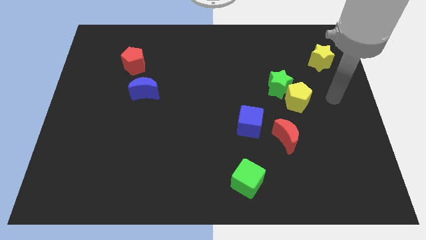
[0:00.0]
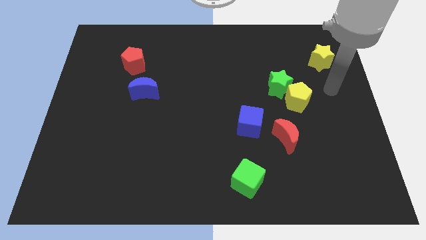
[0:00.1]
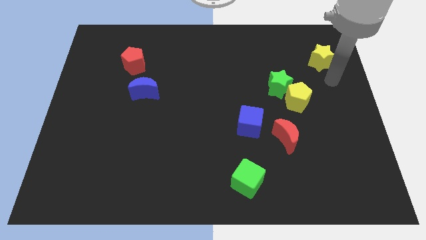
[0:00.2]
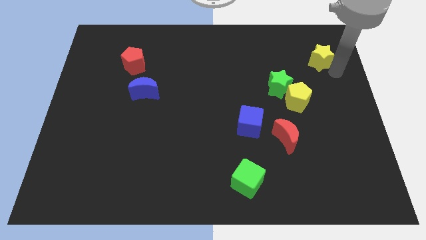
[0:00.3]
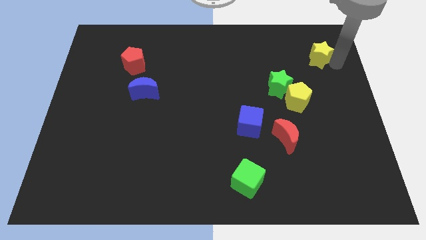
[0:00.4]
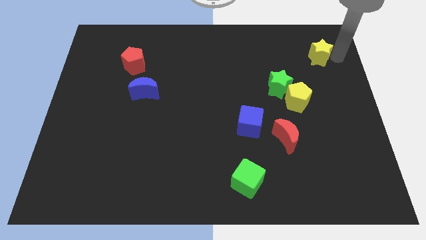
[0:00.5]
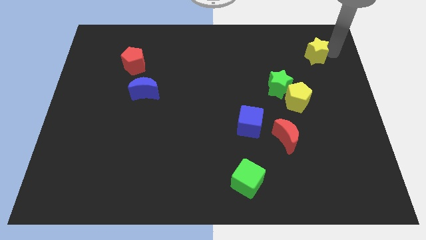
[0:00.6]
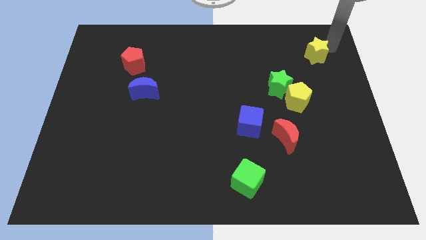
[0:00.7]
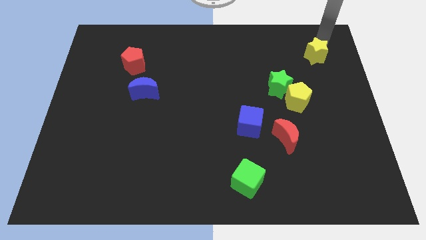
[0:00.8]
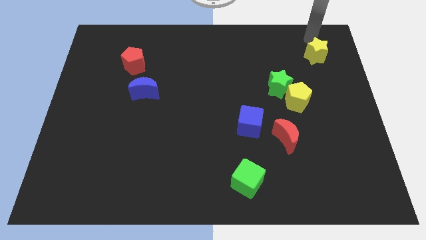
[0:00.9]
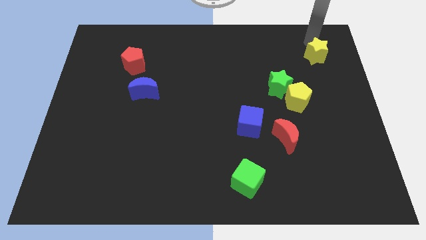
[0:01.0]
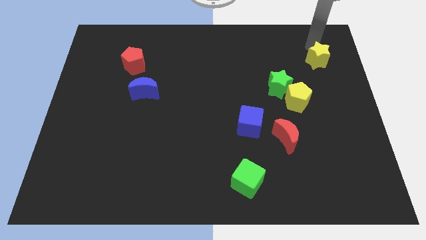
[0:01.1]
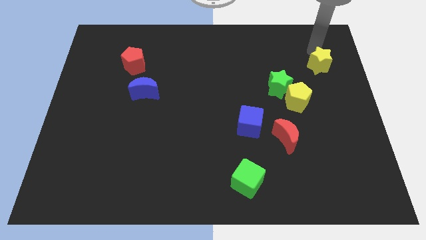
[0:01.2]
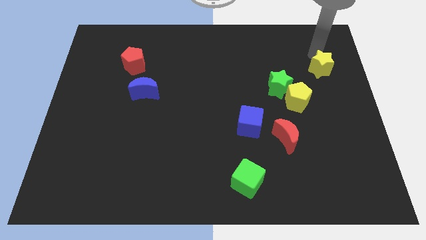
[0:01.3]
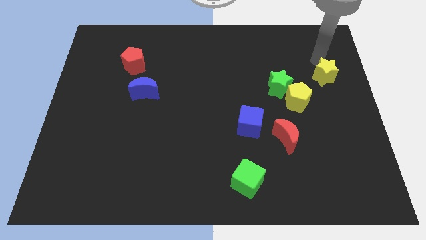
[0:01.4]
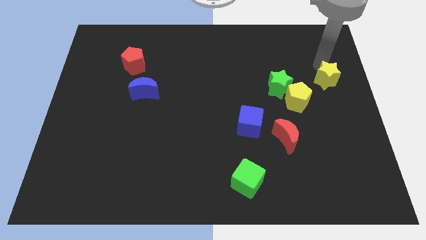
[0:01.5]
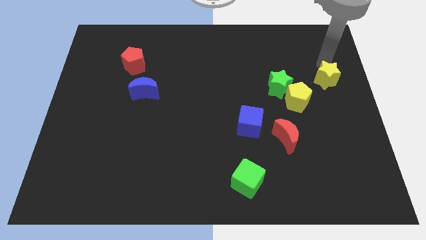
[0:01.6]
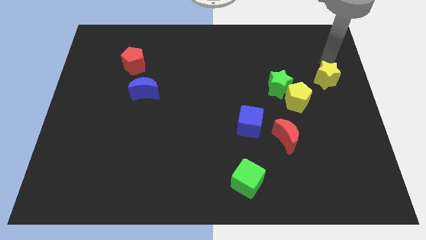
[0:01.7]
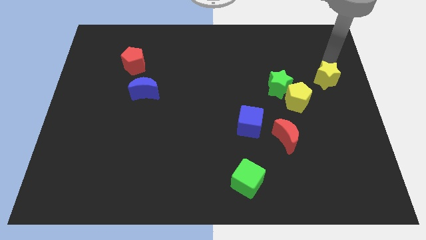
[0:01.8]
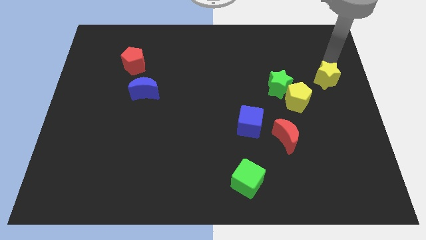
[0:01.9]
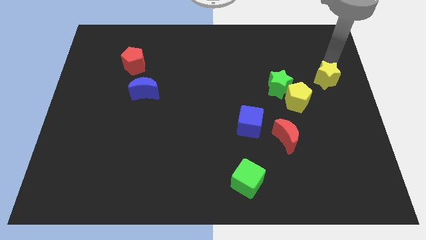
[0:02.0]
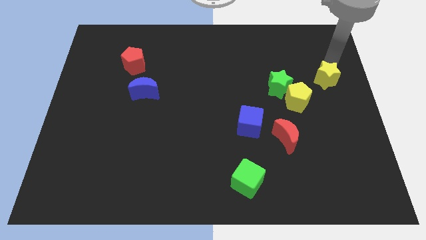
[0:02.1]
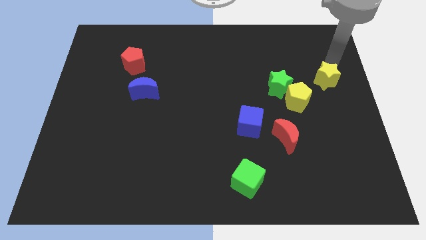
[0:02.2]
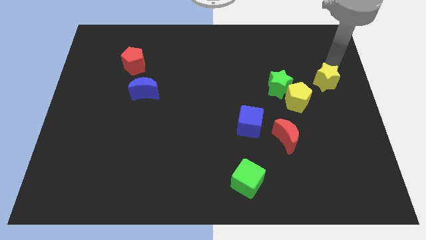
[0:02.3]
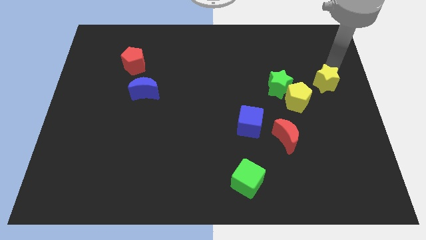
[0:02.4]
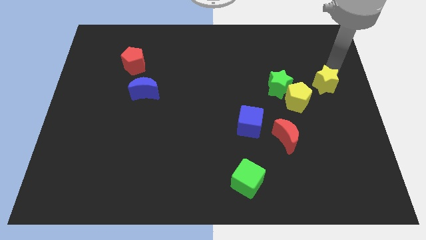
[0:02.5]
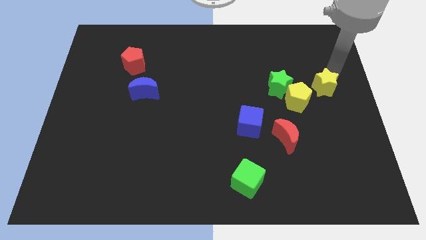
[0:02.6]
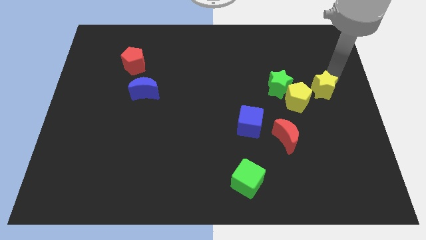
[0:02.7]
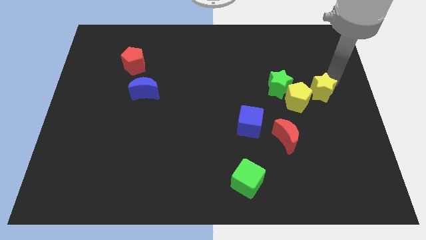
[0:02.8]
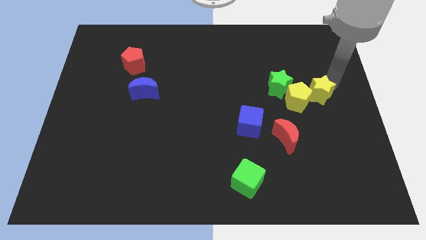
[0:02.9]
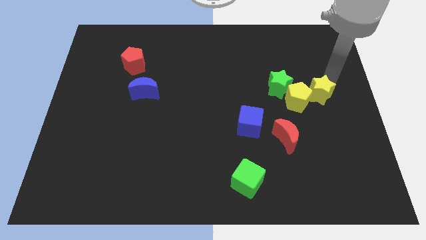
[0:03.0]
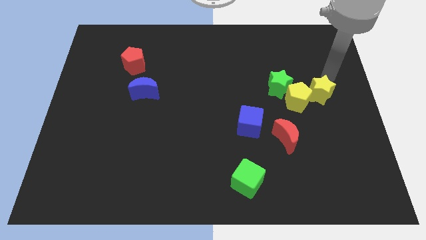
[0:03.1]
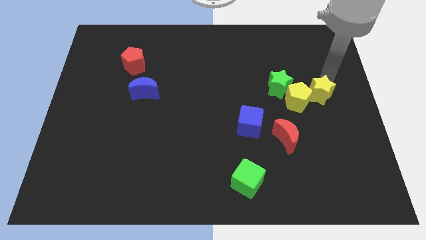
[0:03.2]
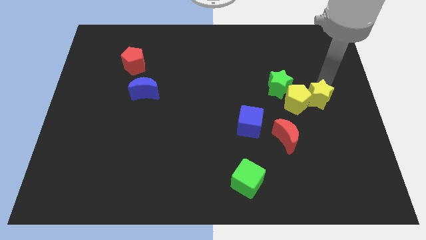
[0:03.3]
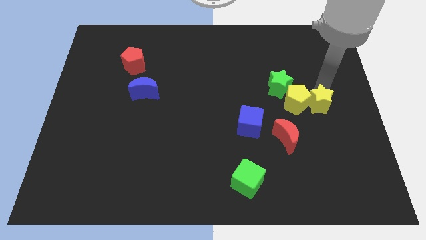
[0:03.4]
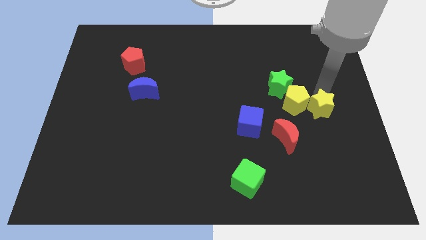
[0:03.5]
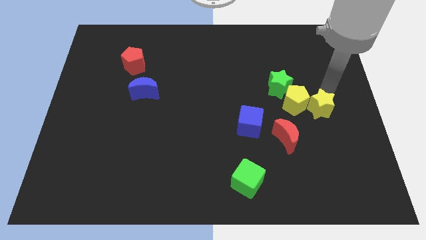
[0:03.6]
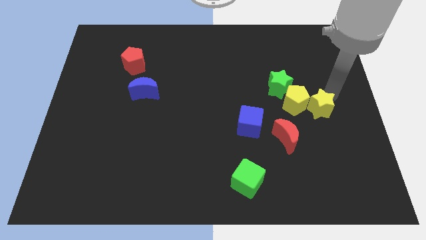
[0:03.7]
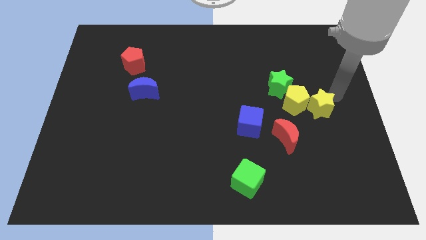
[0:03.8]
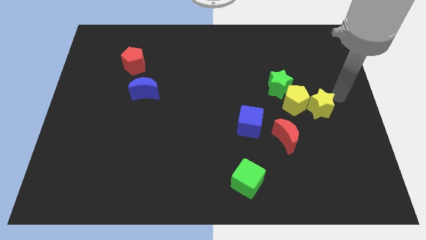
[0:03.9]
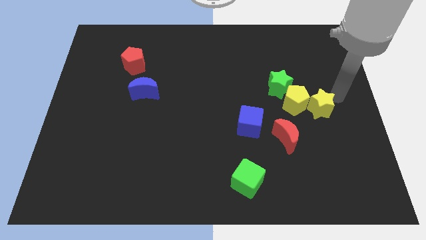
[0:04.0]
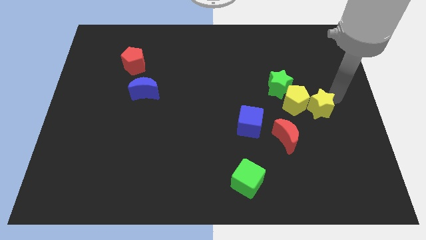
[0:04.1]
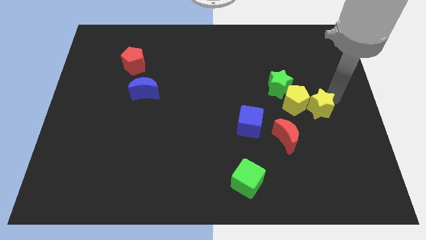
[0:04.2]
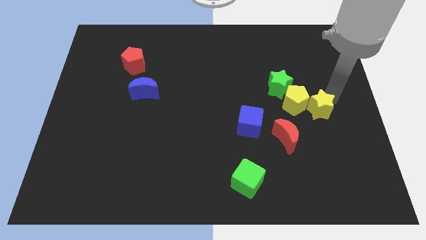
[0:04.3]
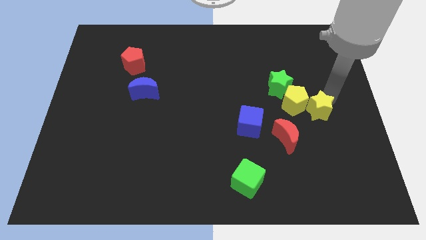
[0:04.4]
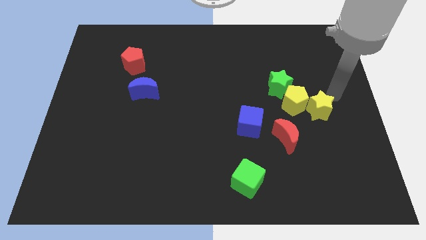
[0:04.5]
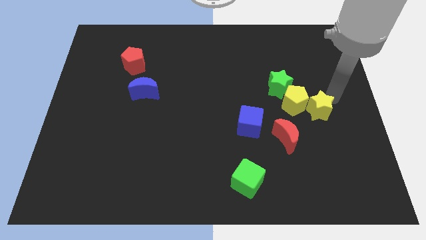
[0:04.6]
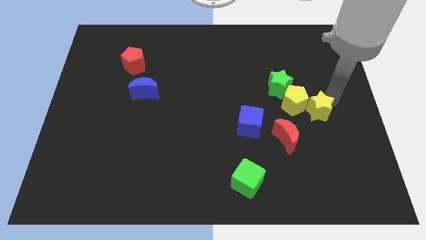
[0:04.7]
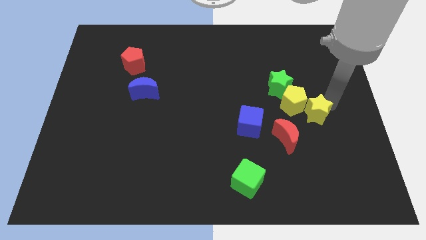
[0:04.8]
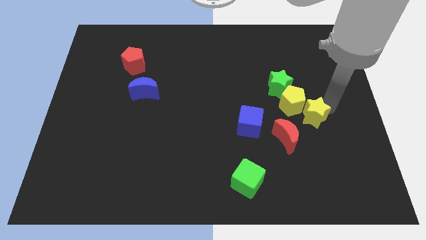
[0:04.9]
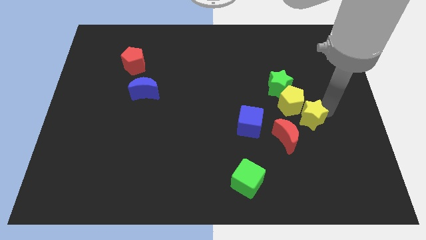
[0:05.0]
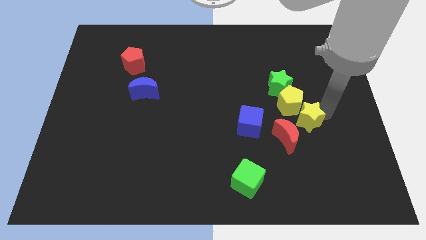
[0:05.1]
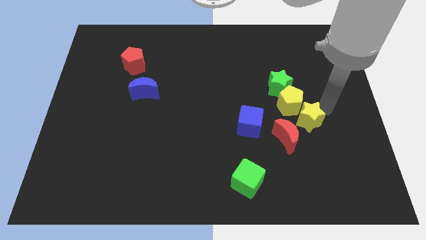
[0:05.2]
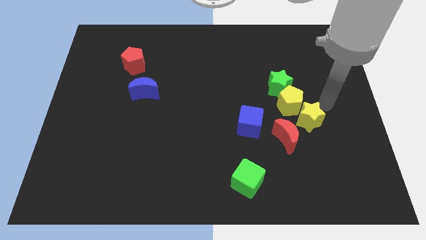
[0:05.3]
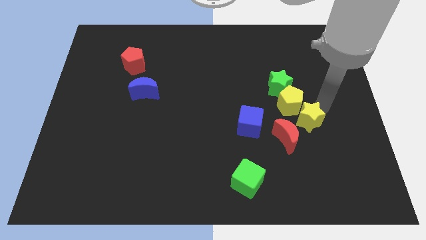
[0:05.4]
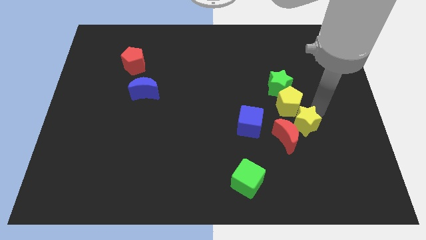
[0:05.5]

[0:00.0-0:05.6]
move the yellow star close to the red moon

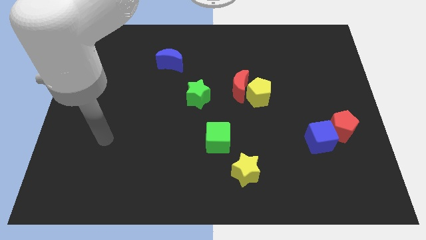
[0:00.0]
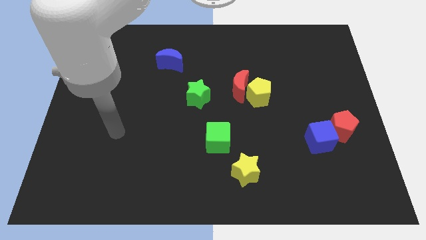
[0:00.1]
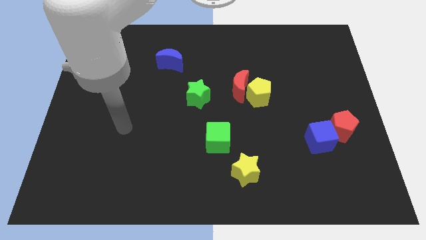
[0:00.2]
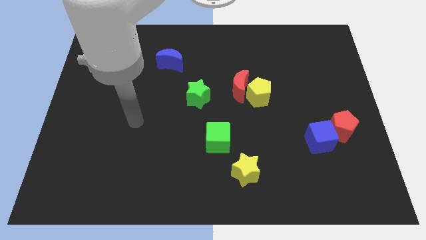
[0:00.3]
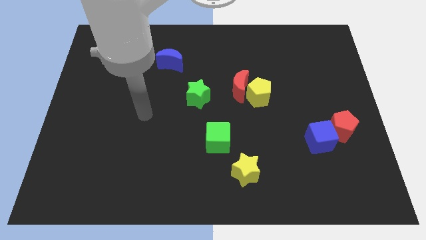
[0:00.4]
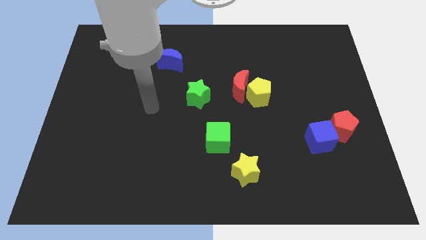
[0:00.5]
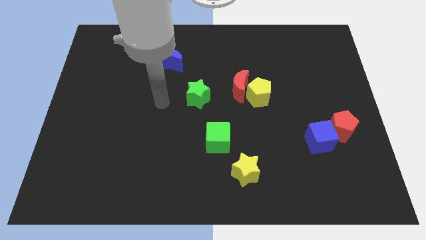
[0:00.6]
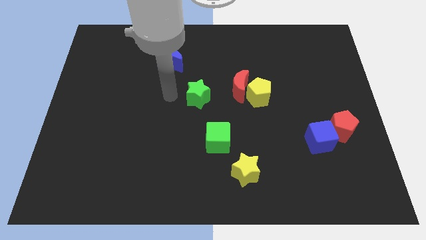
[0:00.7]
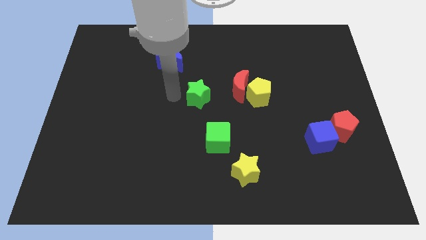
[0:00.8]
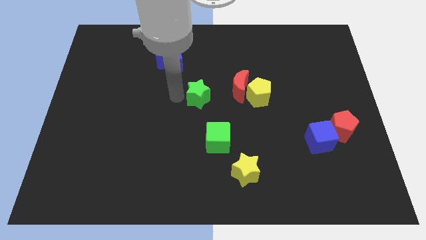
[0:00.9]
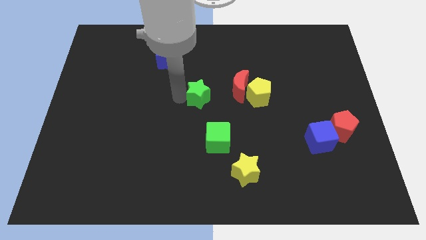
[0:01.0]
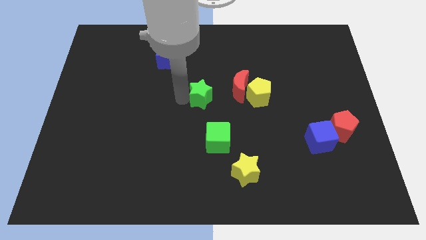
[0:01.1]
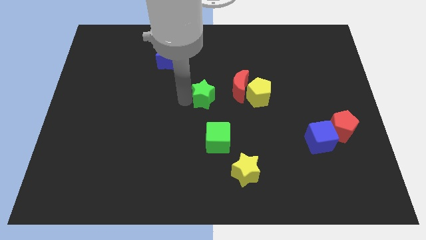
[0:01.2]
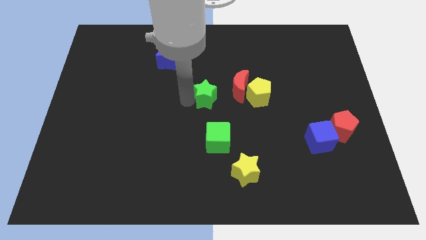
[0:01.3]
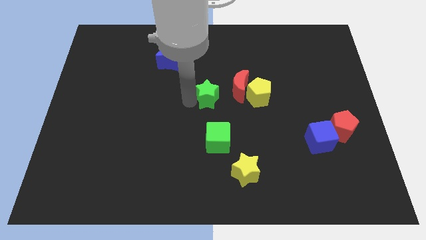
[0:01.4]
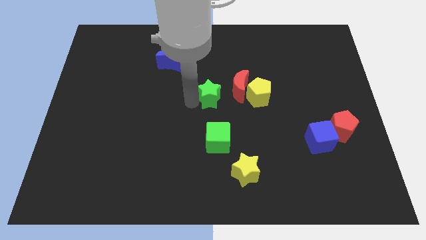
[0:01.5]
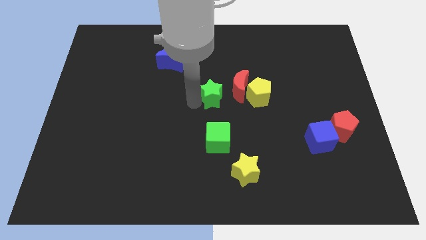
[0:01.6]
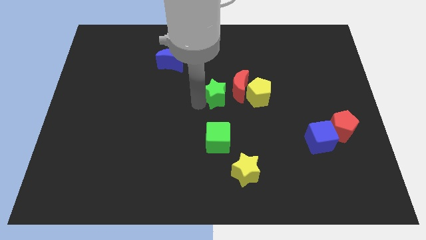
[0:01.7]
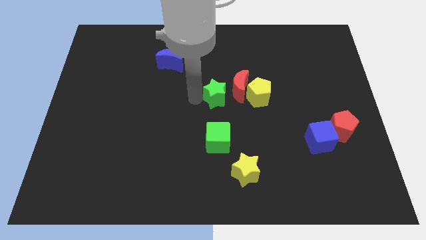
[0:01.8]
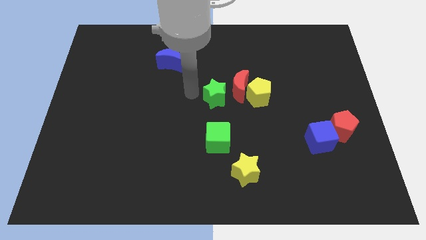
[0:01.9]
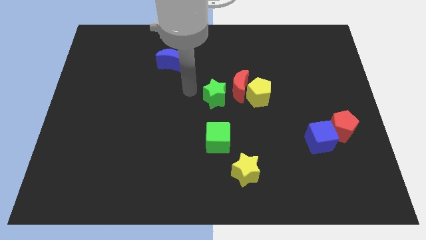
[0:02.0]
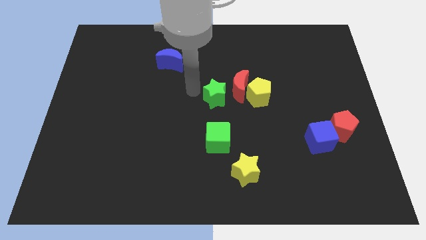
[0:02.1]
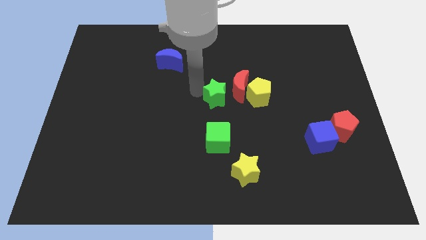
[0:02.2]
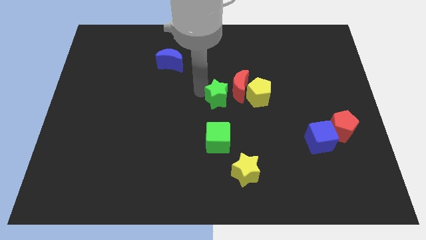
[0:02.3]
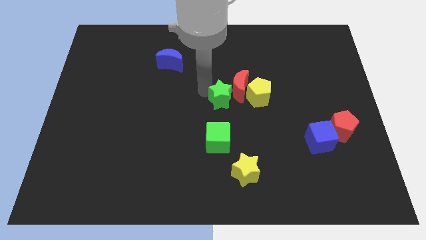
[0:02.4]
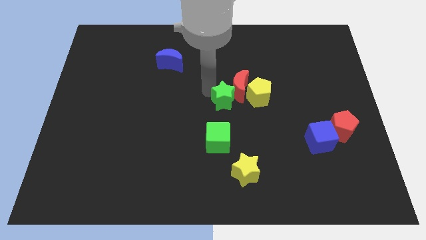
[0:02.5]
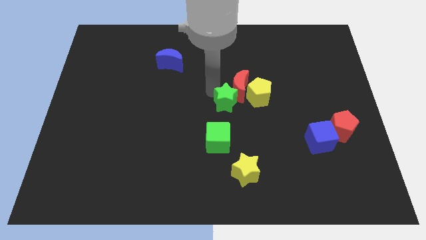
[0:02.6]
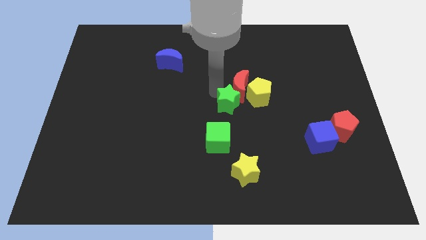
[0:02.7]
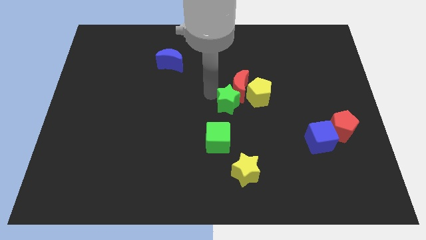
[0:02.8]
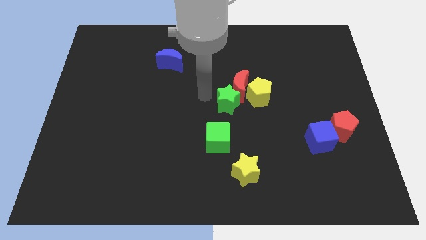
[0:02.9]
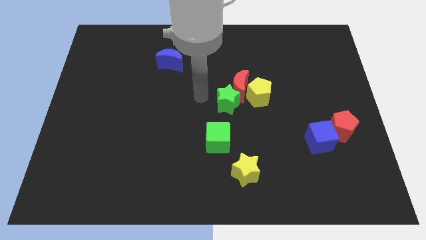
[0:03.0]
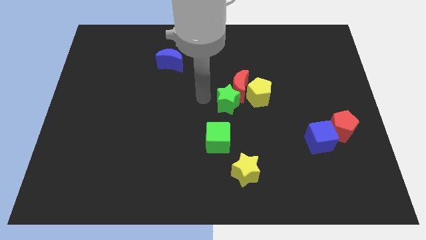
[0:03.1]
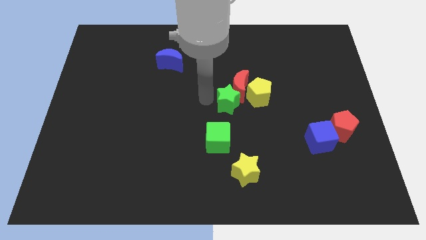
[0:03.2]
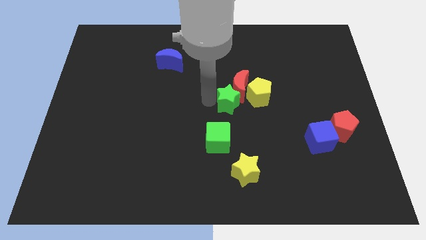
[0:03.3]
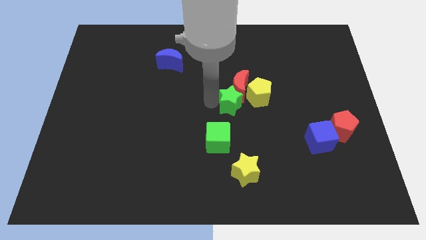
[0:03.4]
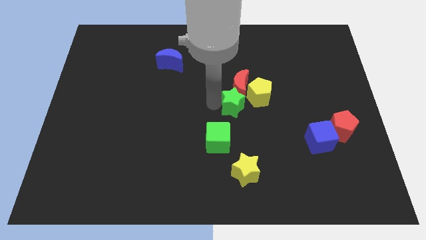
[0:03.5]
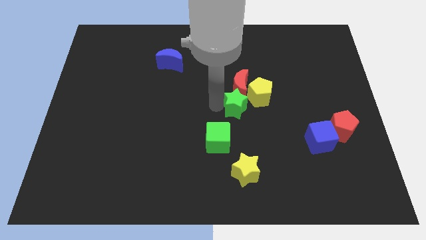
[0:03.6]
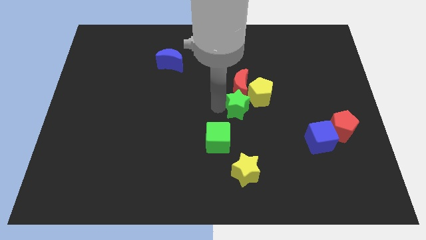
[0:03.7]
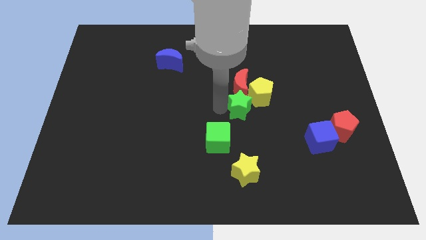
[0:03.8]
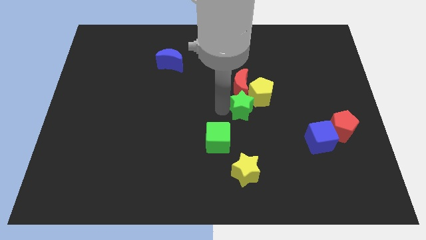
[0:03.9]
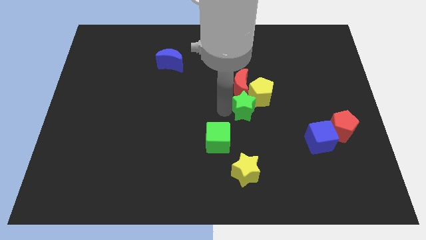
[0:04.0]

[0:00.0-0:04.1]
slide the green star to the yellow pentagon
